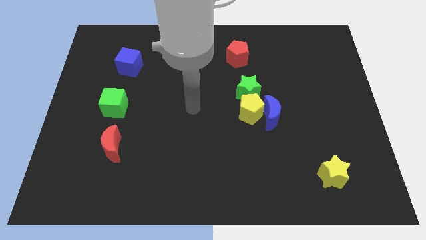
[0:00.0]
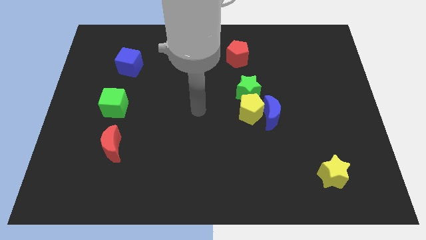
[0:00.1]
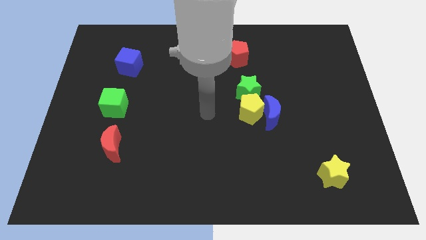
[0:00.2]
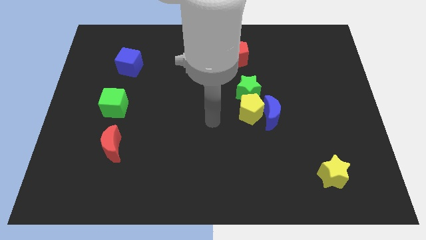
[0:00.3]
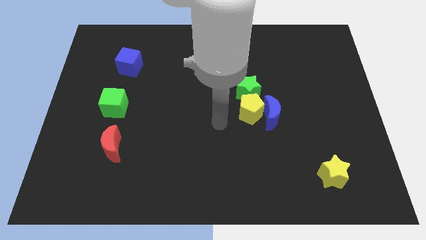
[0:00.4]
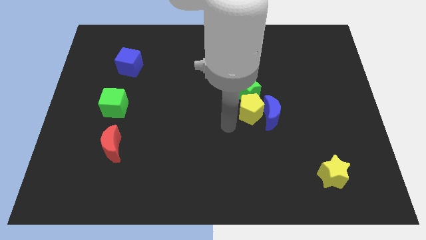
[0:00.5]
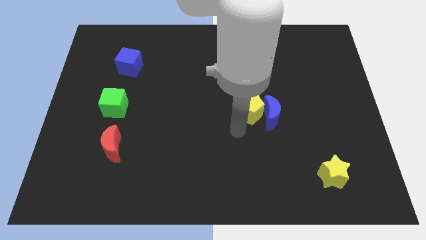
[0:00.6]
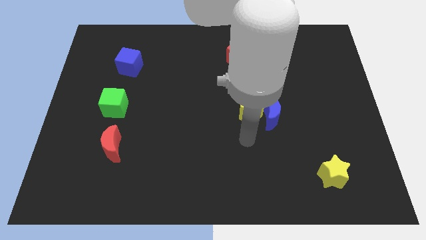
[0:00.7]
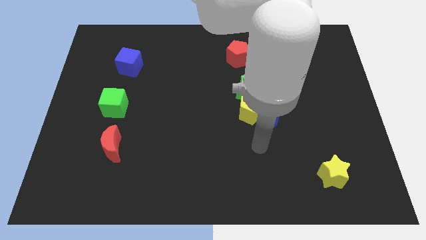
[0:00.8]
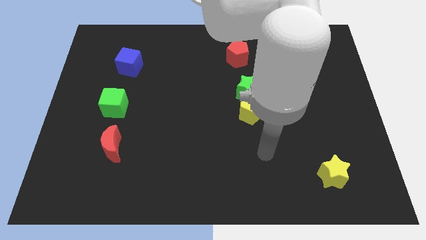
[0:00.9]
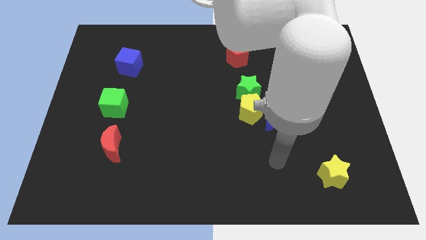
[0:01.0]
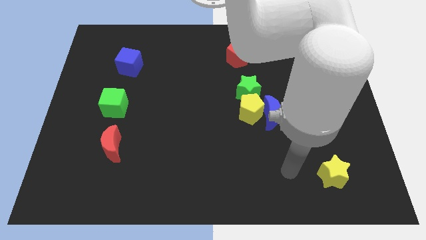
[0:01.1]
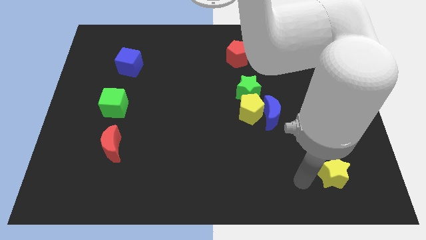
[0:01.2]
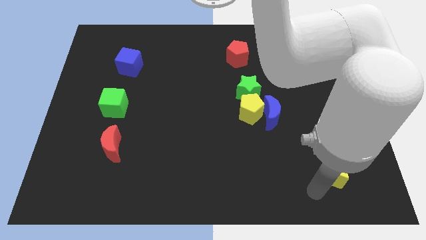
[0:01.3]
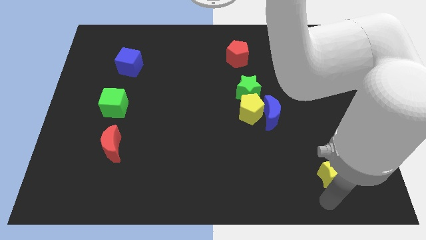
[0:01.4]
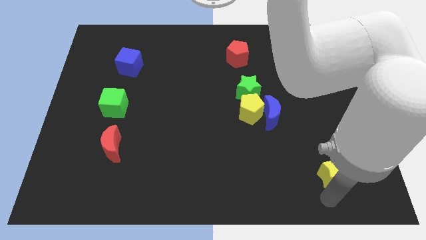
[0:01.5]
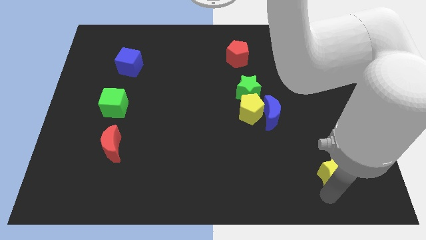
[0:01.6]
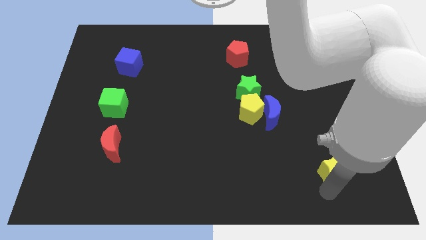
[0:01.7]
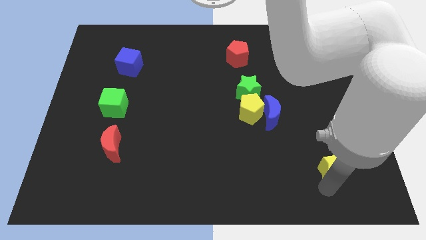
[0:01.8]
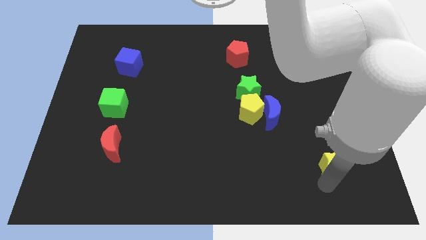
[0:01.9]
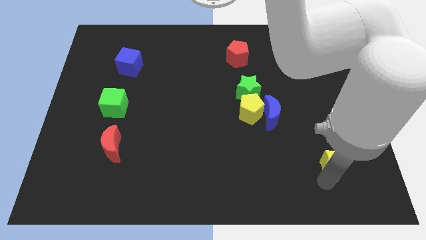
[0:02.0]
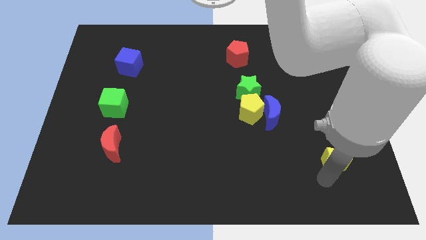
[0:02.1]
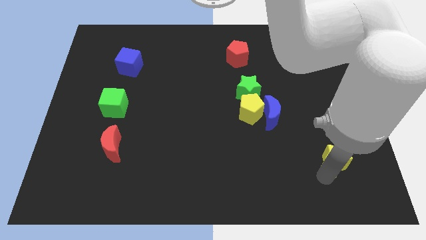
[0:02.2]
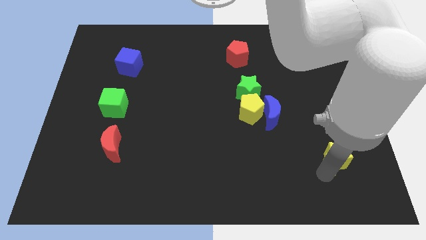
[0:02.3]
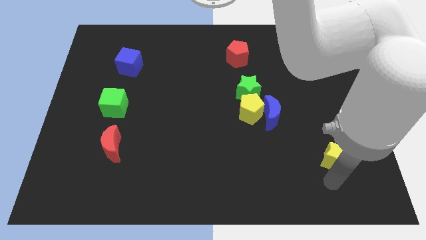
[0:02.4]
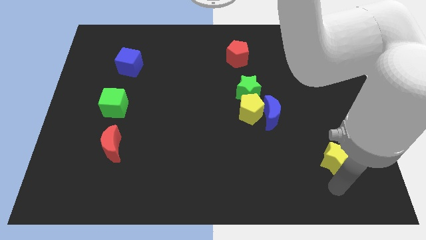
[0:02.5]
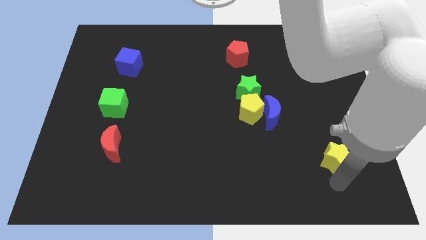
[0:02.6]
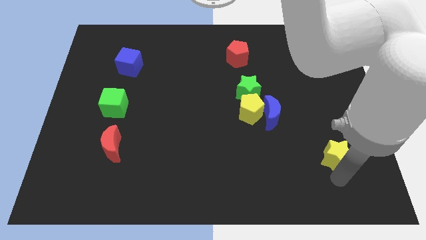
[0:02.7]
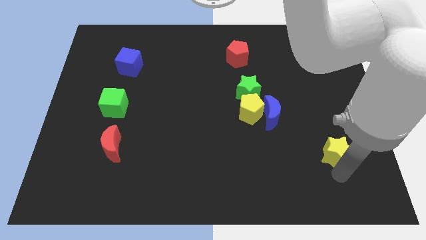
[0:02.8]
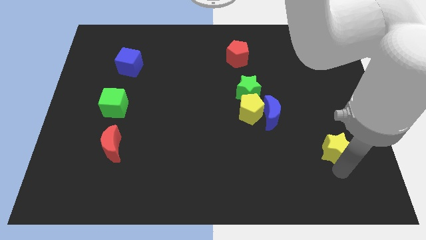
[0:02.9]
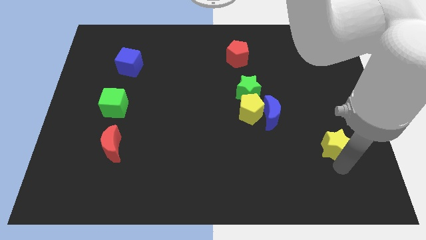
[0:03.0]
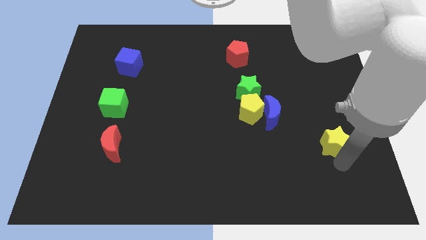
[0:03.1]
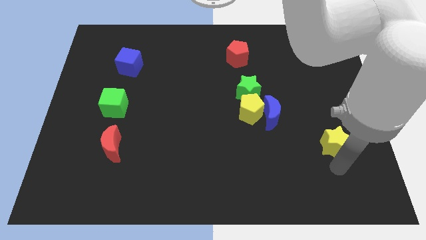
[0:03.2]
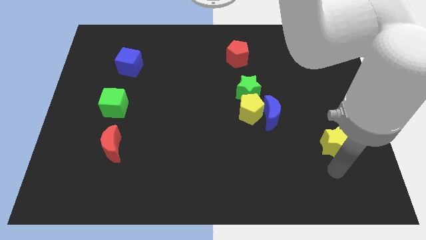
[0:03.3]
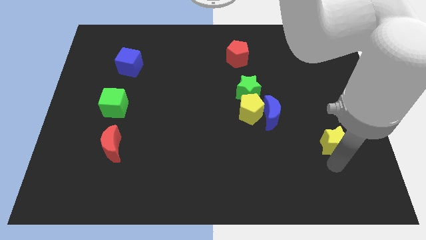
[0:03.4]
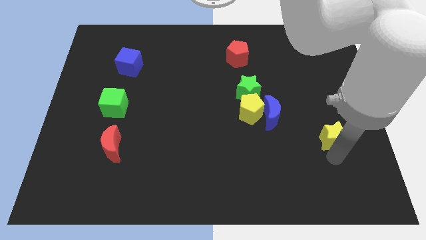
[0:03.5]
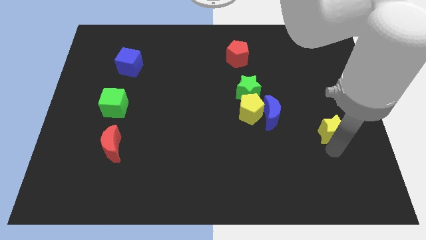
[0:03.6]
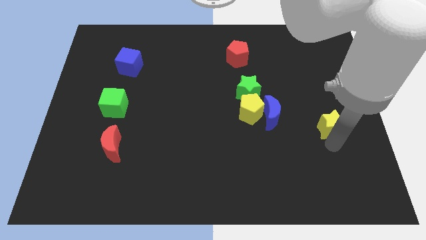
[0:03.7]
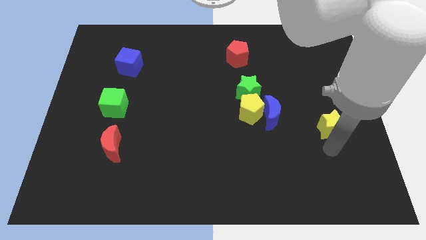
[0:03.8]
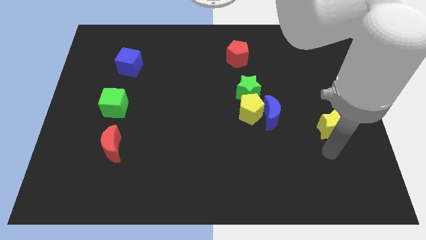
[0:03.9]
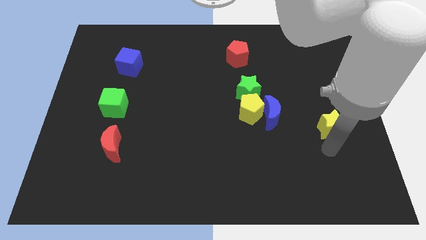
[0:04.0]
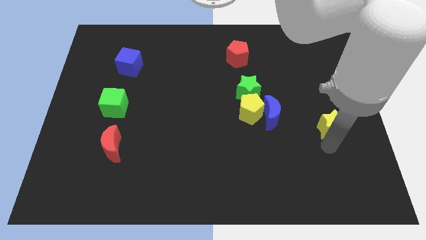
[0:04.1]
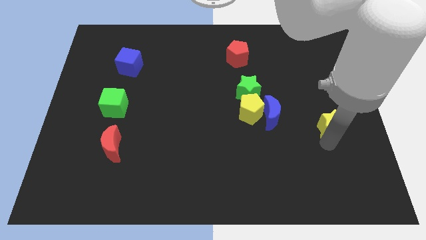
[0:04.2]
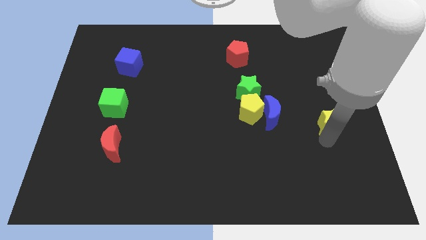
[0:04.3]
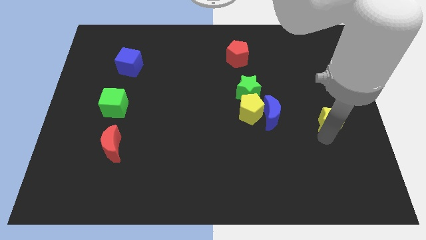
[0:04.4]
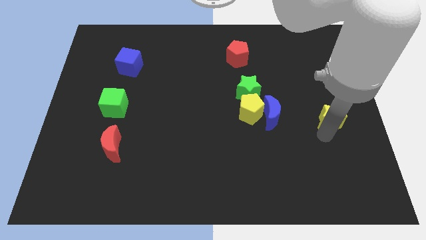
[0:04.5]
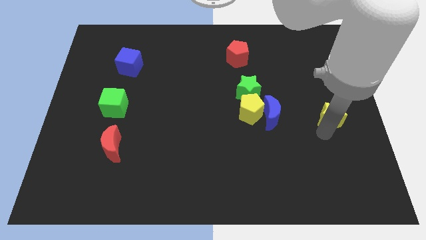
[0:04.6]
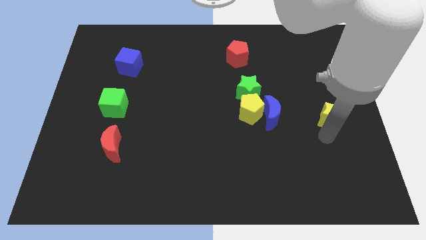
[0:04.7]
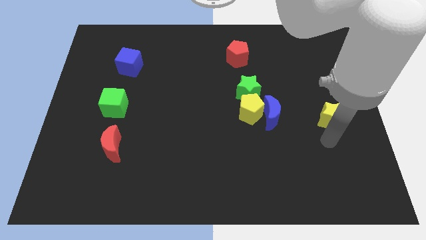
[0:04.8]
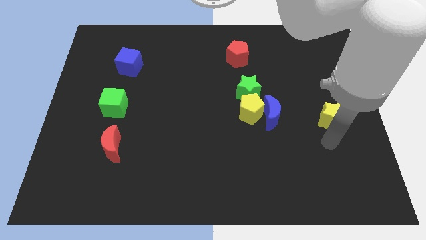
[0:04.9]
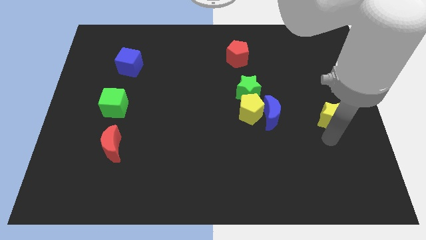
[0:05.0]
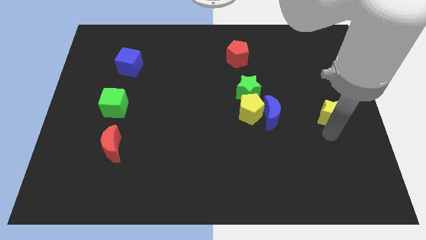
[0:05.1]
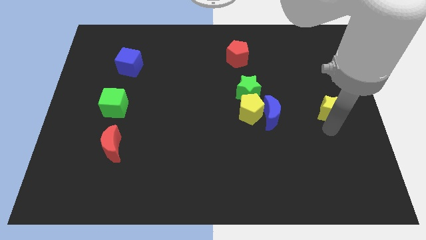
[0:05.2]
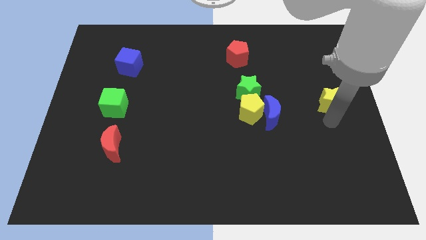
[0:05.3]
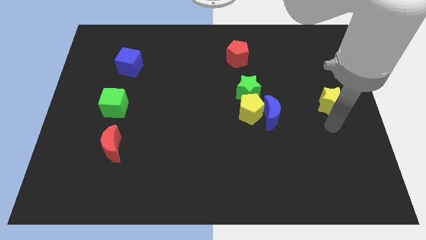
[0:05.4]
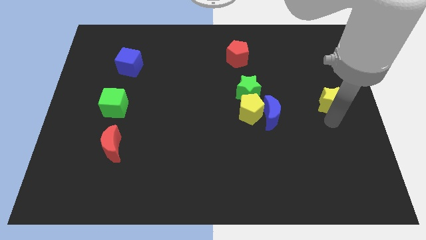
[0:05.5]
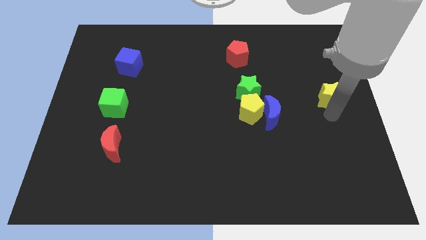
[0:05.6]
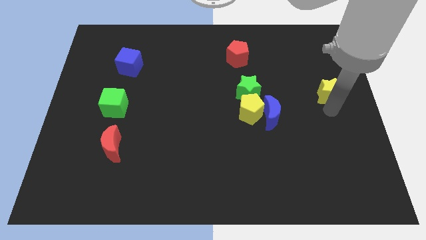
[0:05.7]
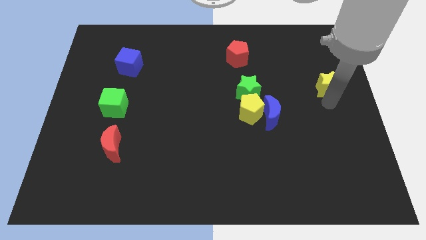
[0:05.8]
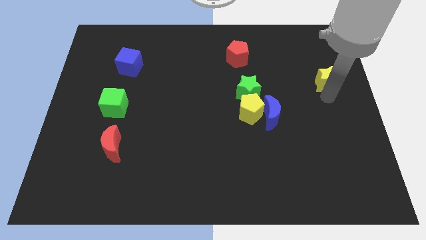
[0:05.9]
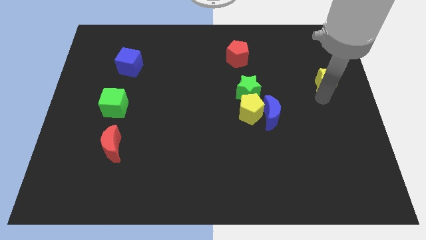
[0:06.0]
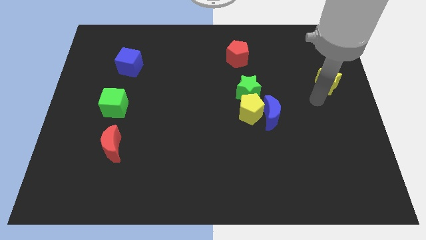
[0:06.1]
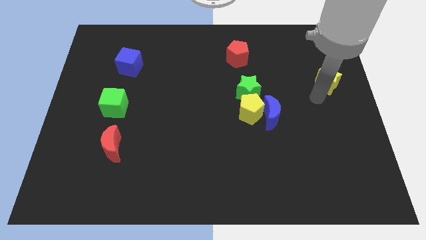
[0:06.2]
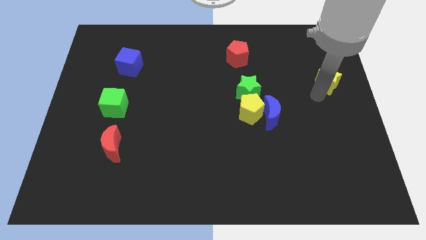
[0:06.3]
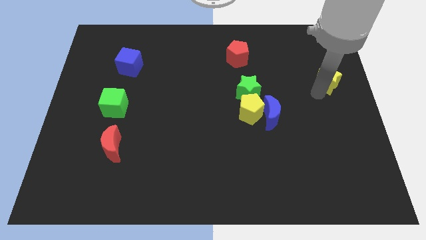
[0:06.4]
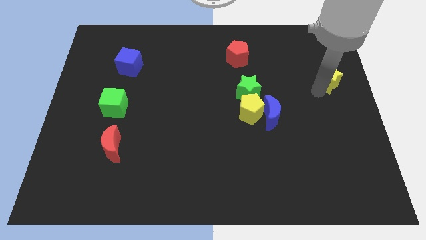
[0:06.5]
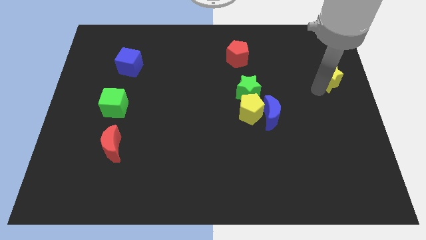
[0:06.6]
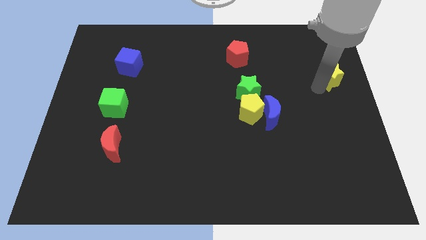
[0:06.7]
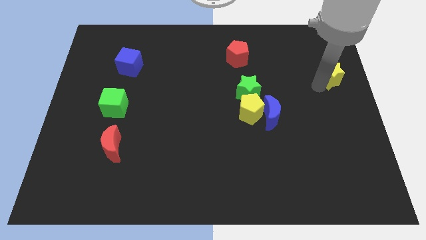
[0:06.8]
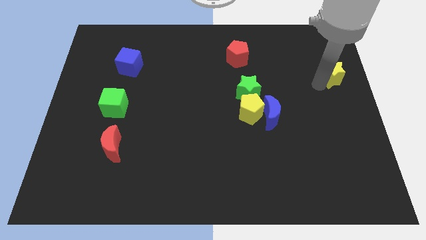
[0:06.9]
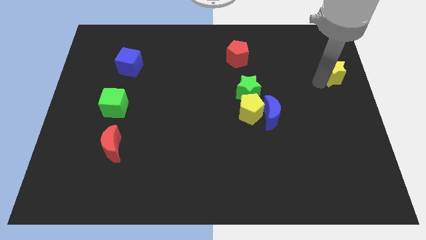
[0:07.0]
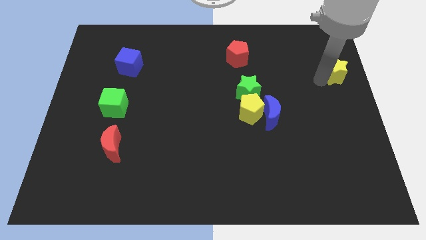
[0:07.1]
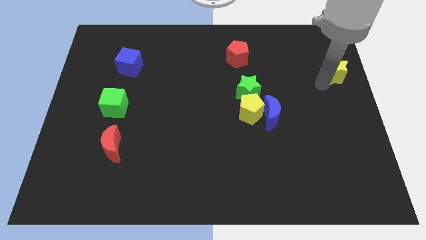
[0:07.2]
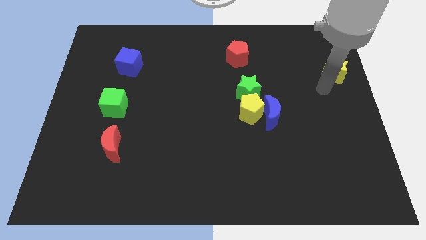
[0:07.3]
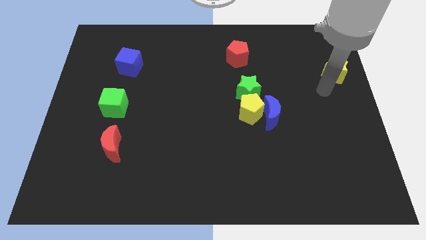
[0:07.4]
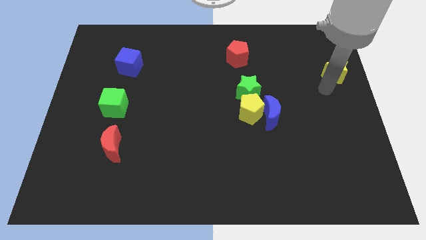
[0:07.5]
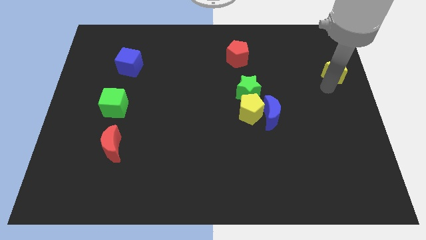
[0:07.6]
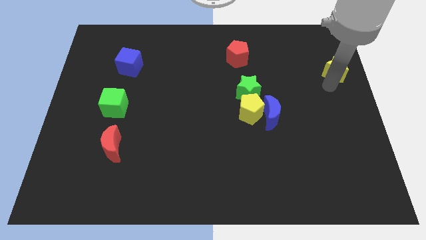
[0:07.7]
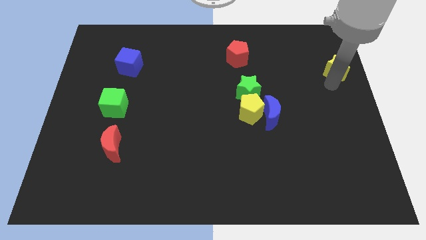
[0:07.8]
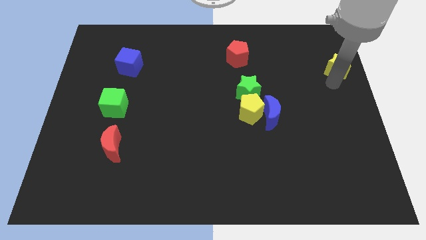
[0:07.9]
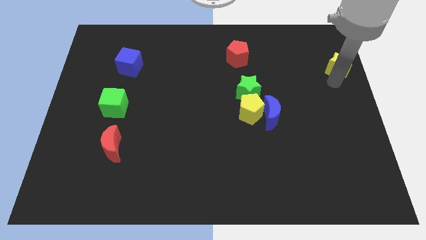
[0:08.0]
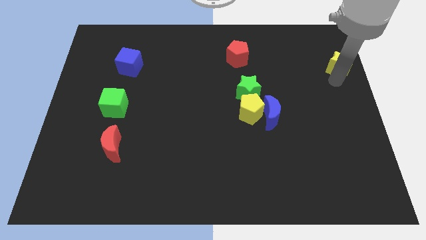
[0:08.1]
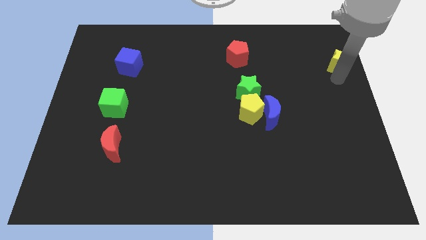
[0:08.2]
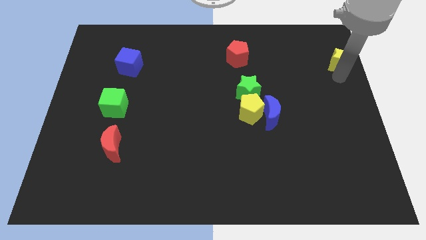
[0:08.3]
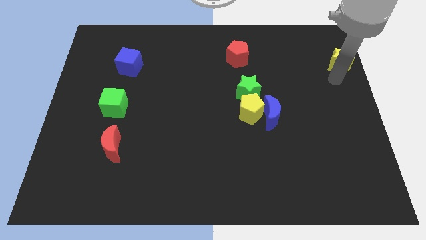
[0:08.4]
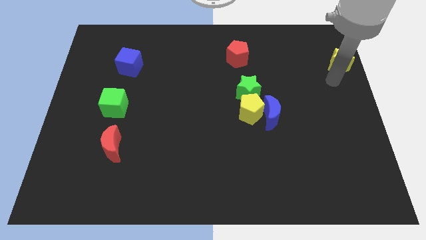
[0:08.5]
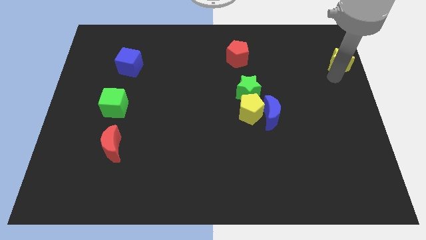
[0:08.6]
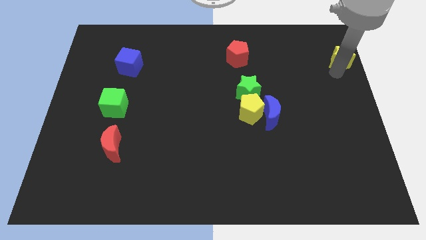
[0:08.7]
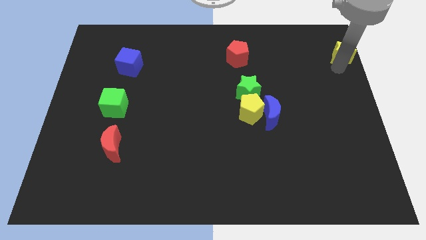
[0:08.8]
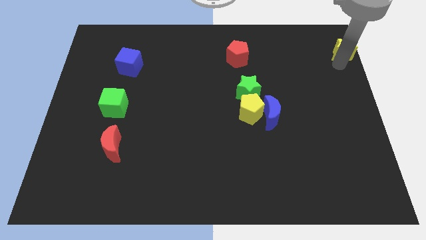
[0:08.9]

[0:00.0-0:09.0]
put the yellow star to the top right corner
